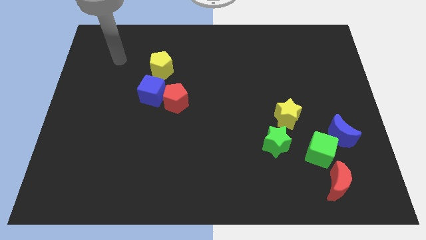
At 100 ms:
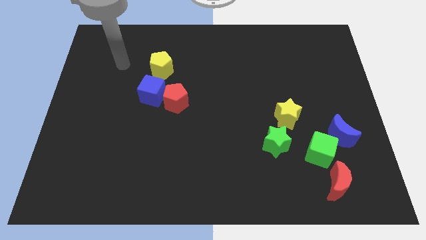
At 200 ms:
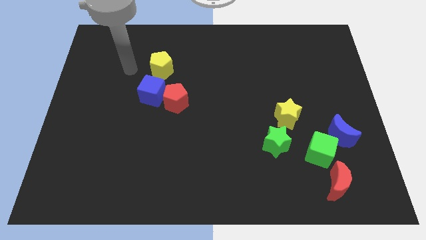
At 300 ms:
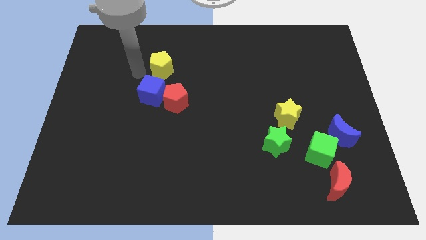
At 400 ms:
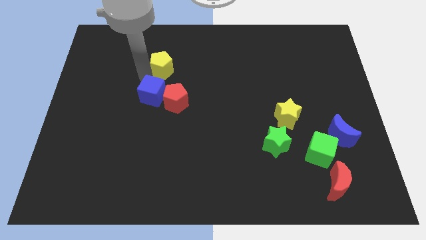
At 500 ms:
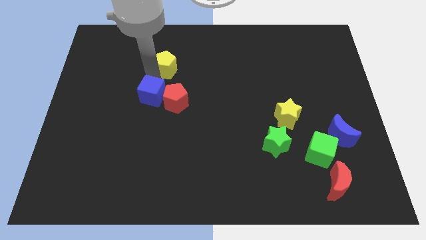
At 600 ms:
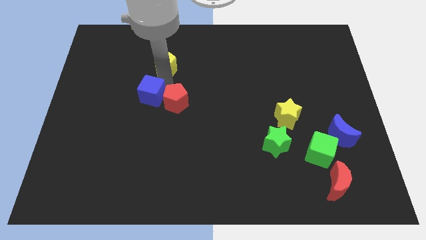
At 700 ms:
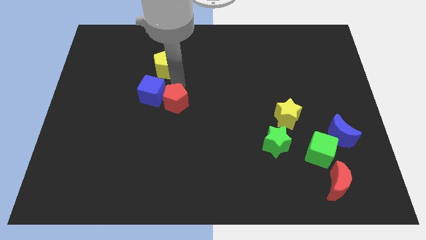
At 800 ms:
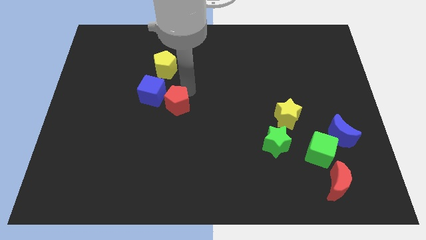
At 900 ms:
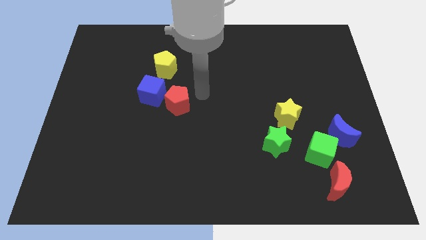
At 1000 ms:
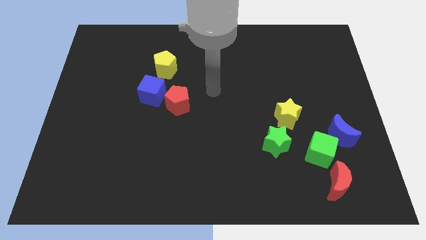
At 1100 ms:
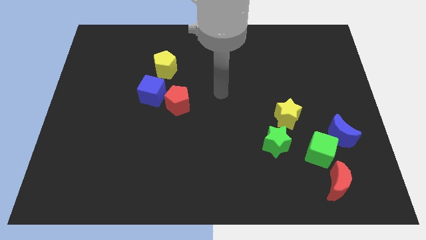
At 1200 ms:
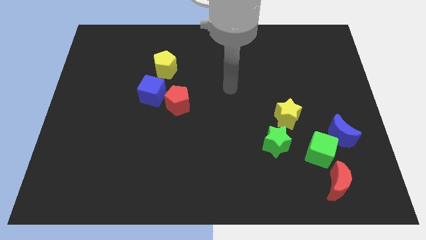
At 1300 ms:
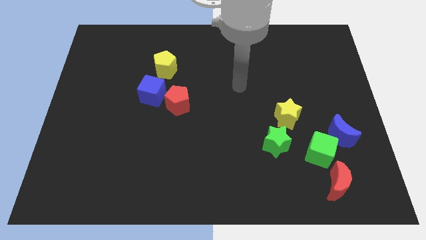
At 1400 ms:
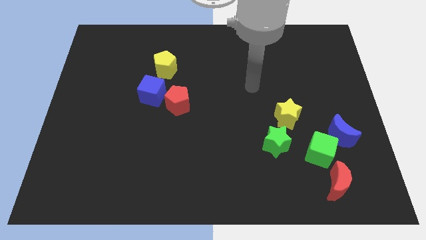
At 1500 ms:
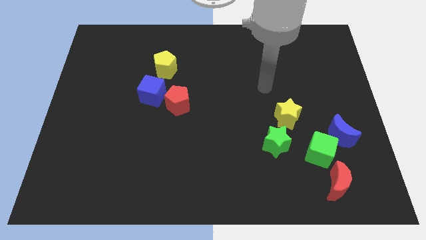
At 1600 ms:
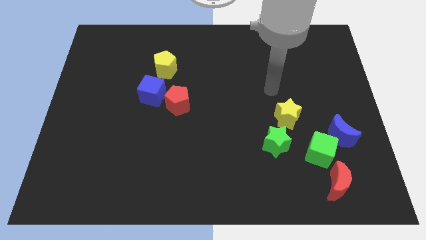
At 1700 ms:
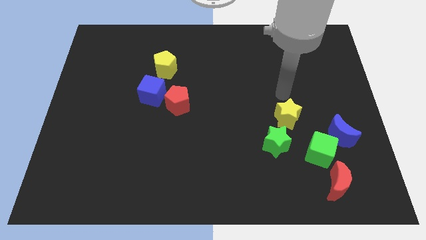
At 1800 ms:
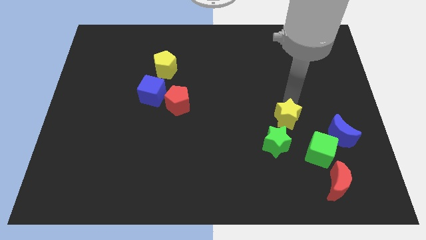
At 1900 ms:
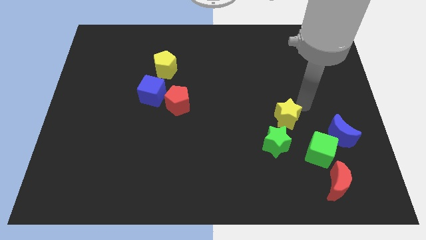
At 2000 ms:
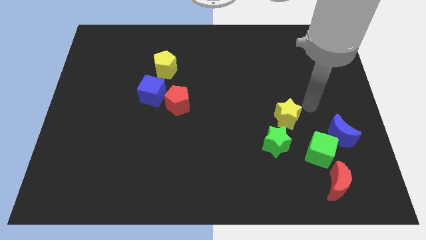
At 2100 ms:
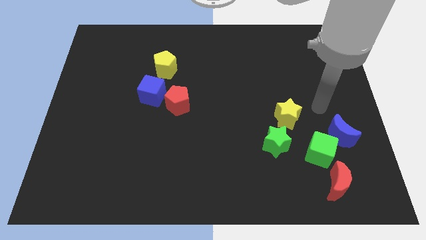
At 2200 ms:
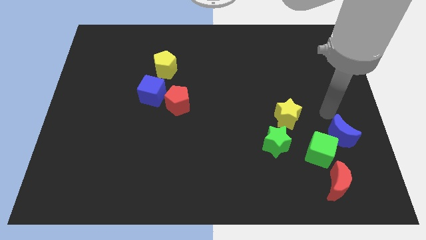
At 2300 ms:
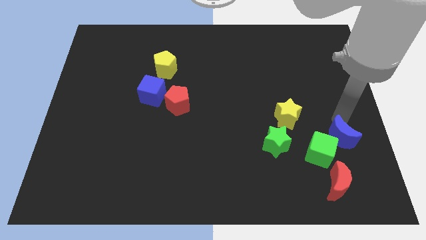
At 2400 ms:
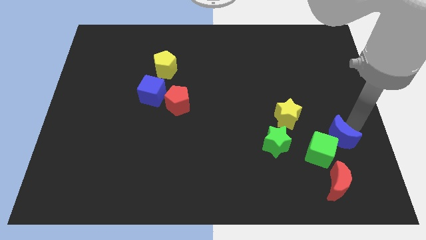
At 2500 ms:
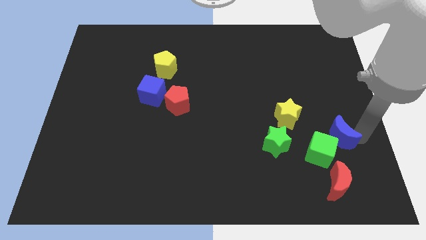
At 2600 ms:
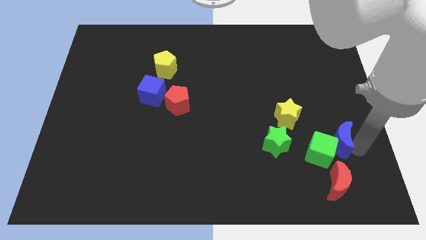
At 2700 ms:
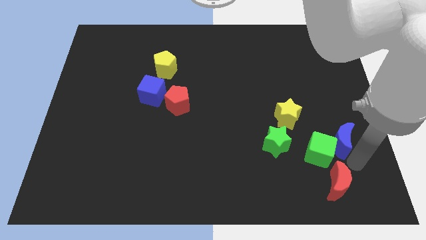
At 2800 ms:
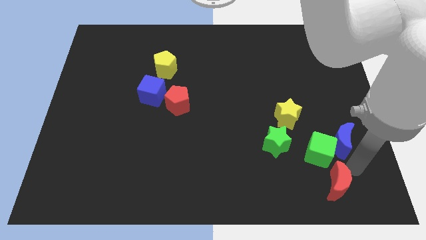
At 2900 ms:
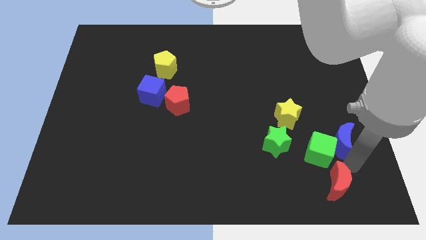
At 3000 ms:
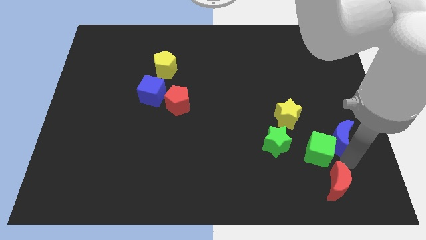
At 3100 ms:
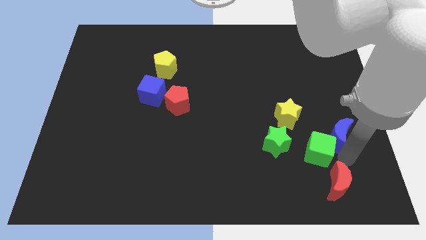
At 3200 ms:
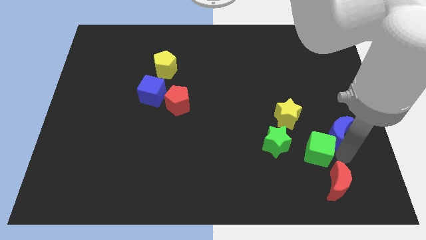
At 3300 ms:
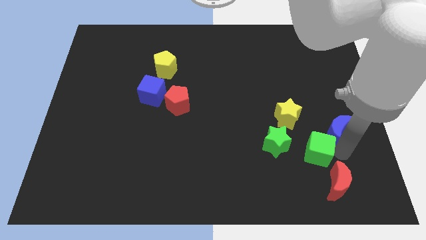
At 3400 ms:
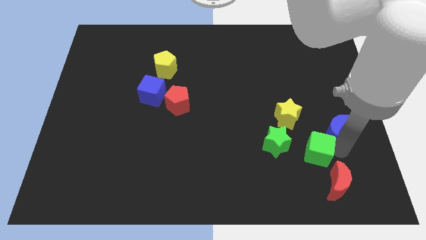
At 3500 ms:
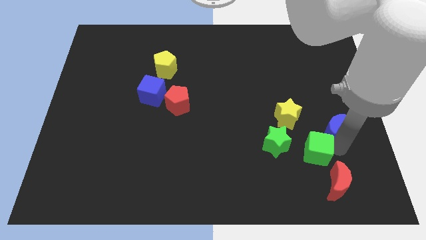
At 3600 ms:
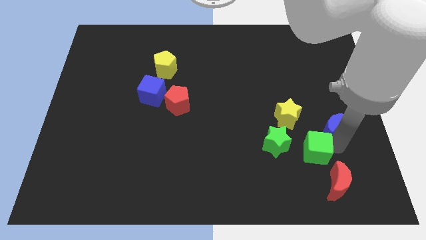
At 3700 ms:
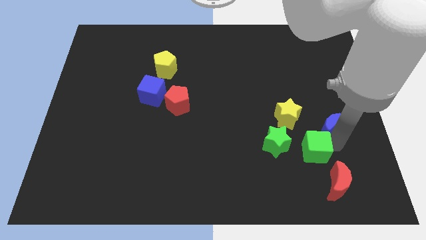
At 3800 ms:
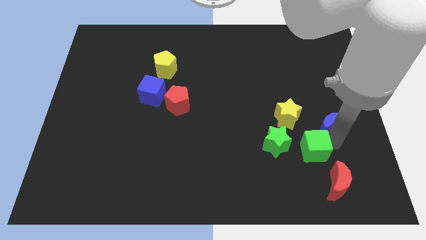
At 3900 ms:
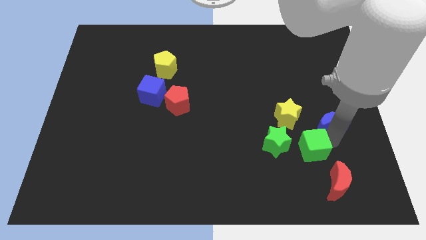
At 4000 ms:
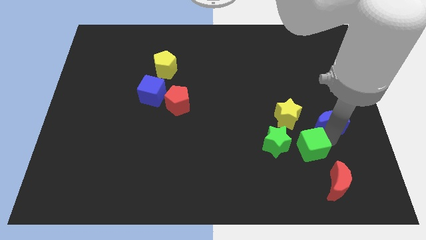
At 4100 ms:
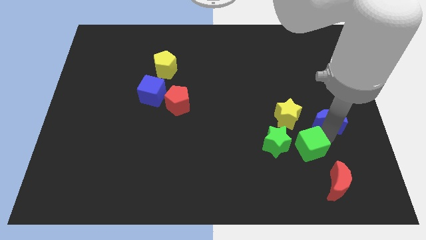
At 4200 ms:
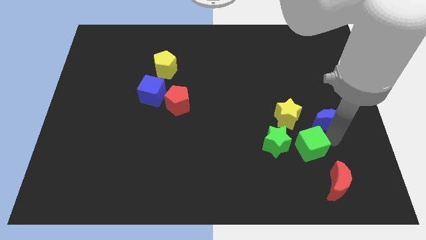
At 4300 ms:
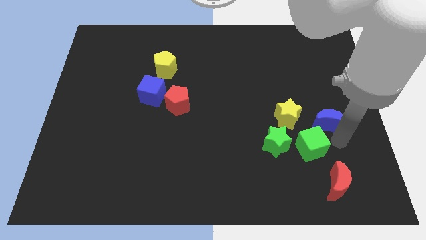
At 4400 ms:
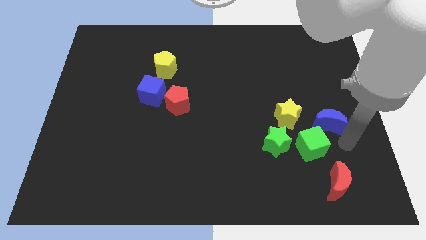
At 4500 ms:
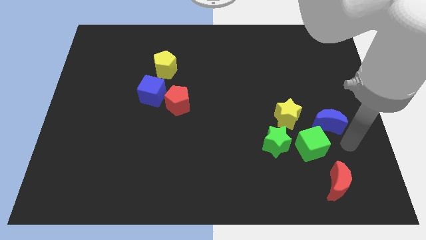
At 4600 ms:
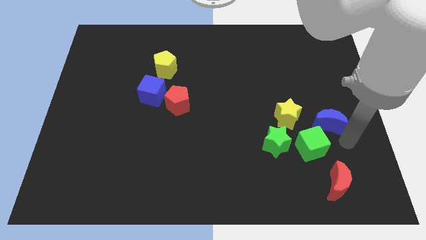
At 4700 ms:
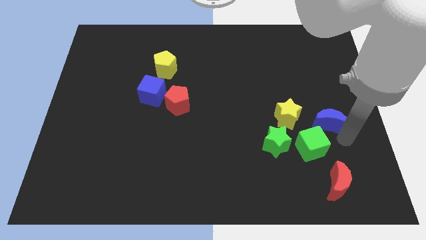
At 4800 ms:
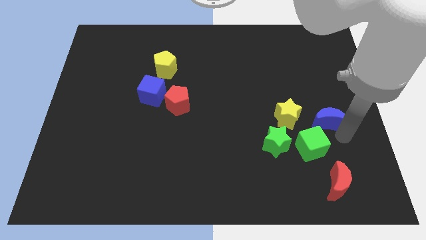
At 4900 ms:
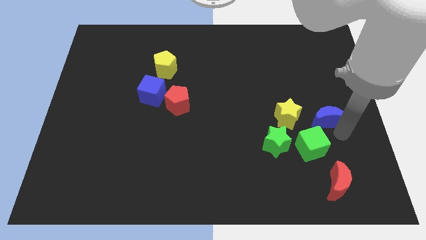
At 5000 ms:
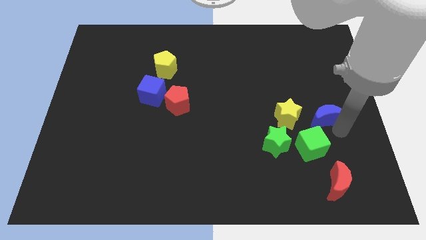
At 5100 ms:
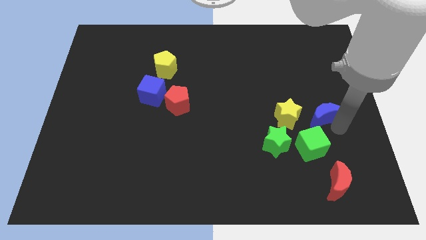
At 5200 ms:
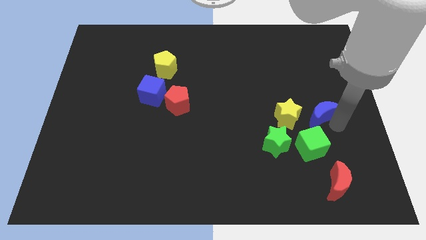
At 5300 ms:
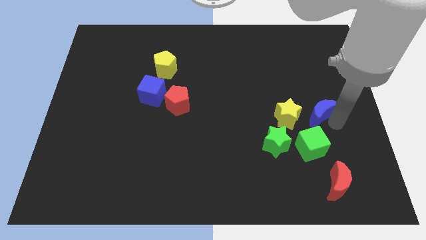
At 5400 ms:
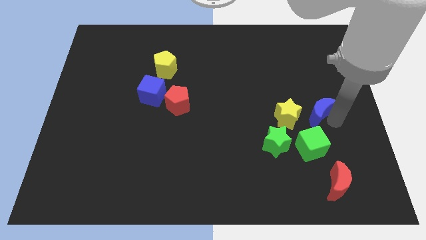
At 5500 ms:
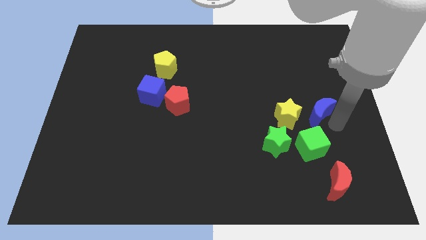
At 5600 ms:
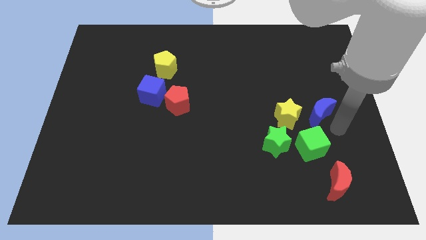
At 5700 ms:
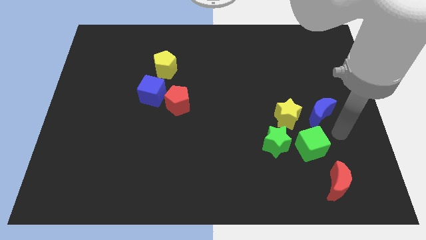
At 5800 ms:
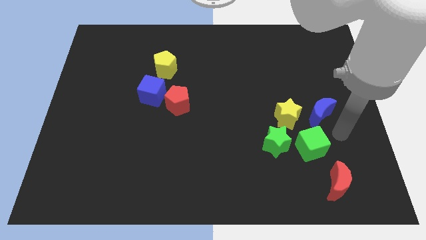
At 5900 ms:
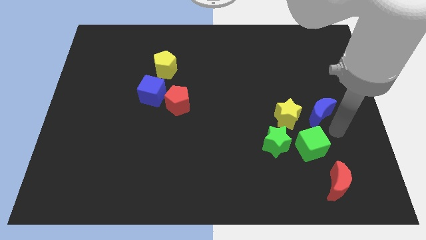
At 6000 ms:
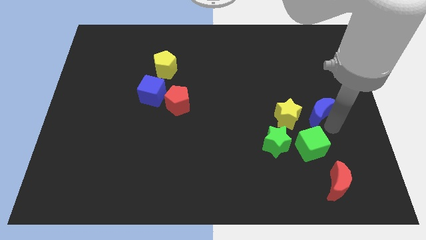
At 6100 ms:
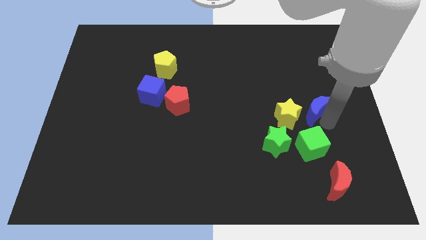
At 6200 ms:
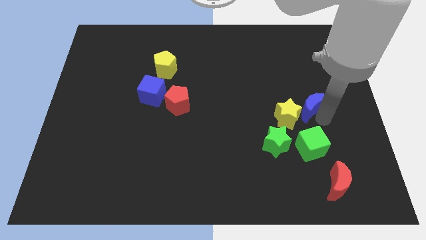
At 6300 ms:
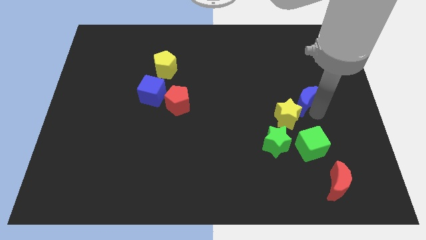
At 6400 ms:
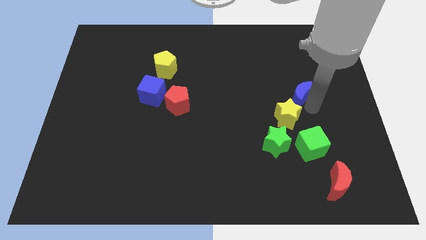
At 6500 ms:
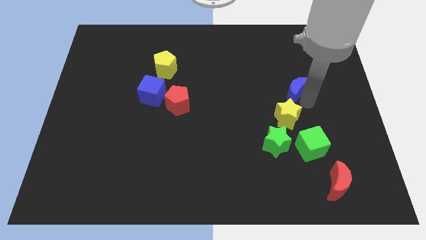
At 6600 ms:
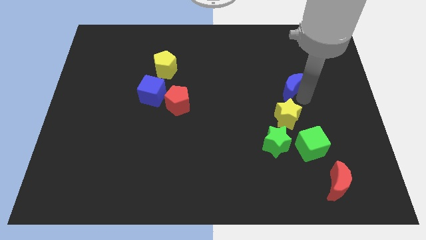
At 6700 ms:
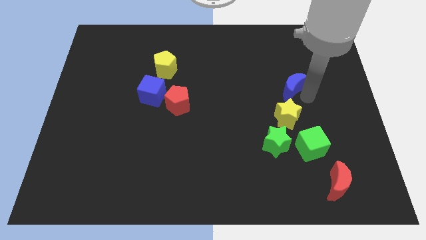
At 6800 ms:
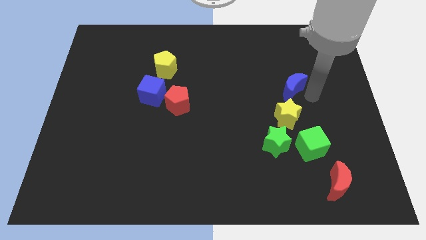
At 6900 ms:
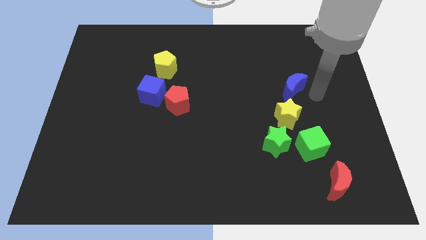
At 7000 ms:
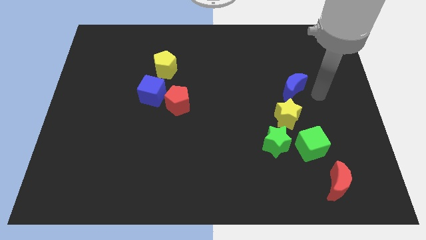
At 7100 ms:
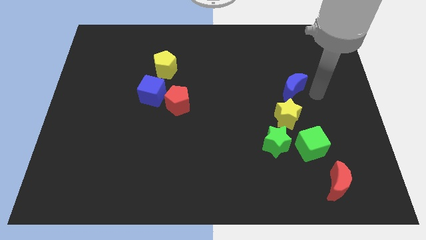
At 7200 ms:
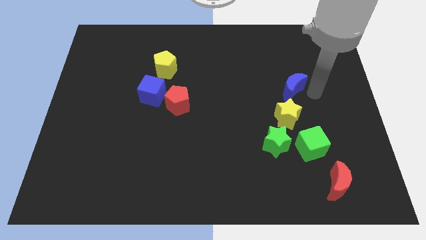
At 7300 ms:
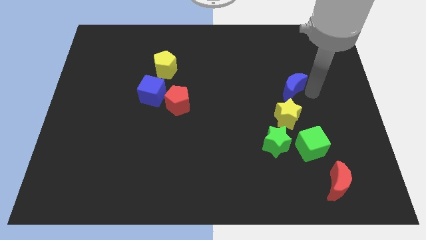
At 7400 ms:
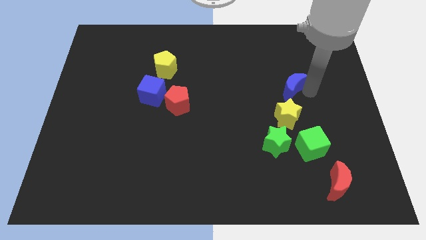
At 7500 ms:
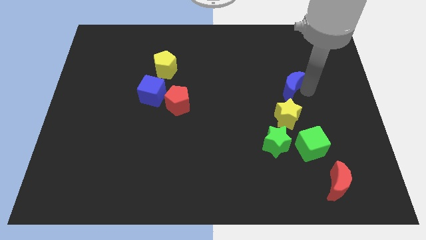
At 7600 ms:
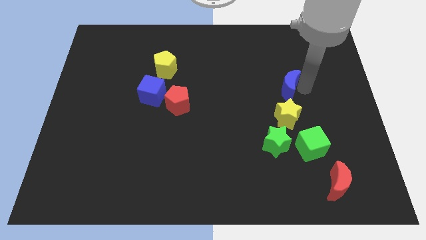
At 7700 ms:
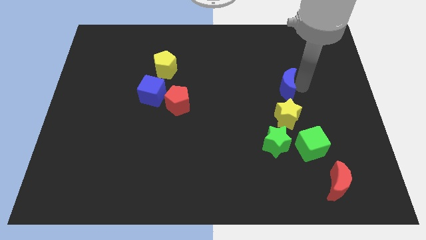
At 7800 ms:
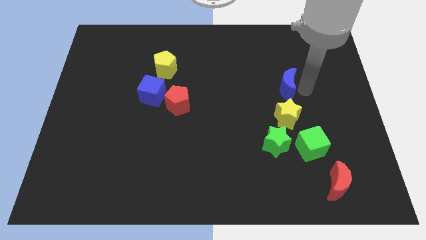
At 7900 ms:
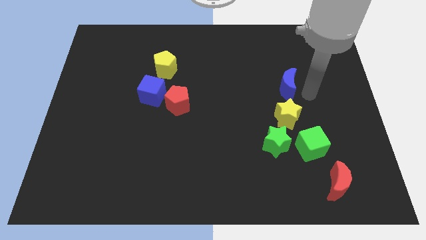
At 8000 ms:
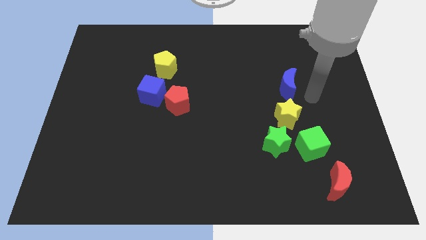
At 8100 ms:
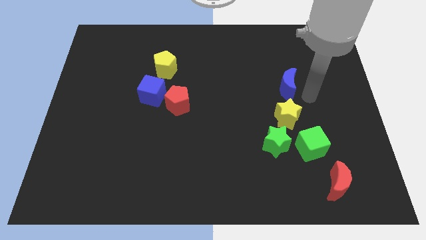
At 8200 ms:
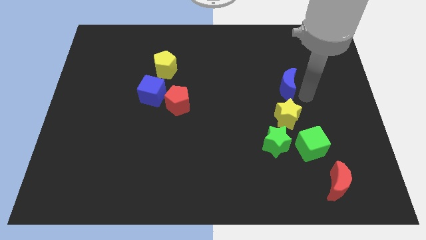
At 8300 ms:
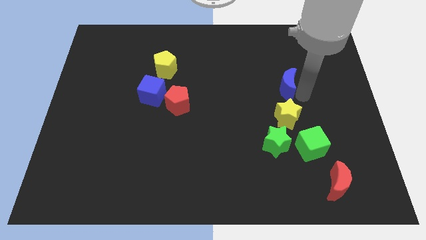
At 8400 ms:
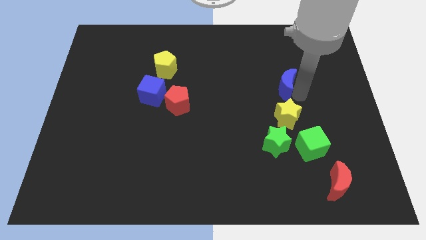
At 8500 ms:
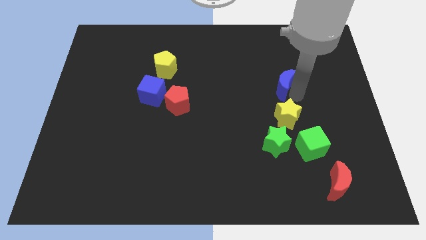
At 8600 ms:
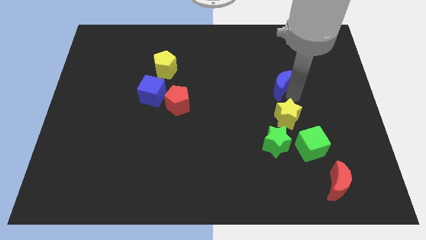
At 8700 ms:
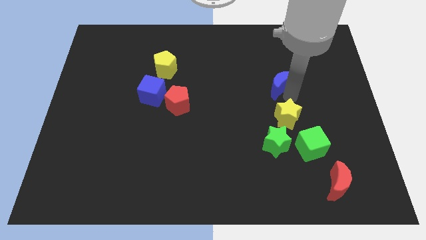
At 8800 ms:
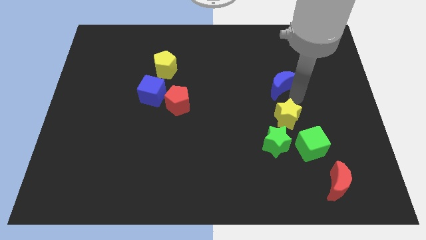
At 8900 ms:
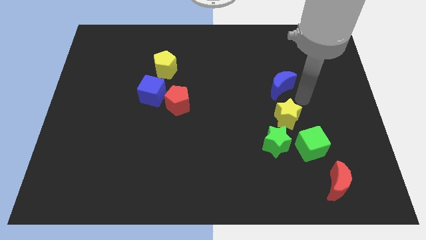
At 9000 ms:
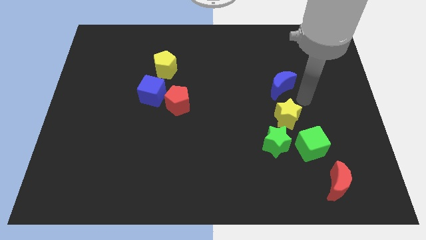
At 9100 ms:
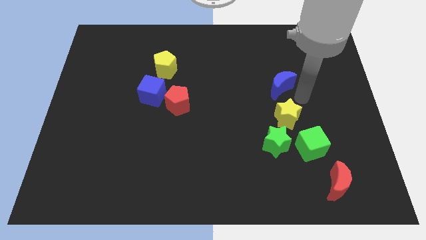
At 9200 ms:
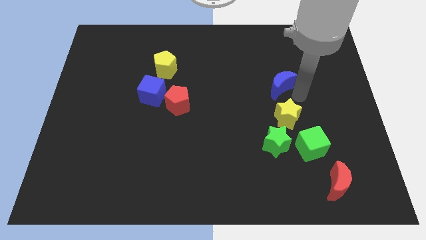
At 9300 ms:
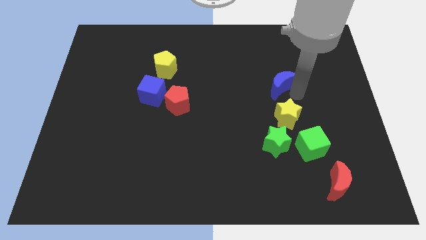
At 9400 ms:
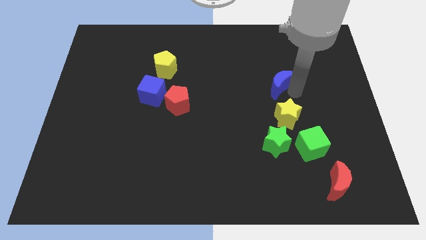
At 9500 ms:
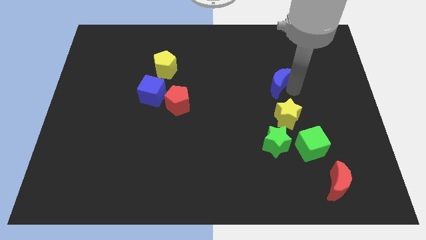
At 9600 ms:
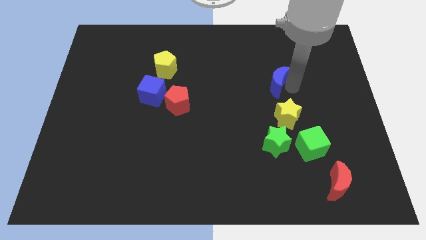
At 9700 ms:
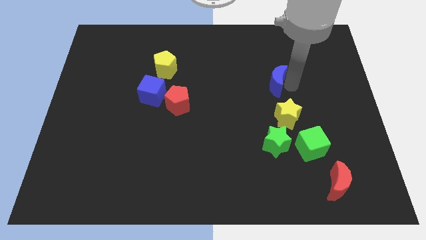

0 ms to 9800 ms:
push the blue moon diagonally upwards and to the left
